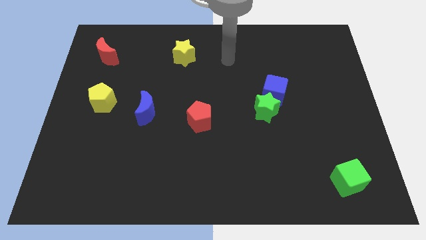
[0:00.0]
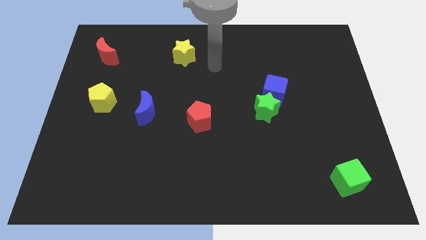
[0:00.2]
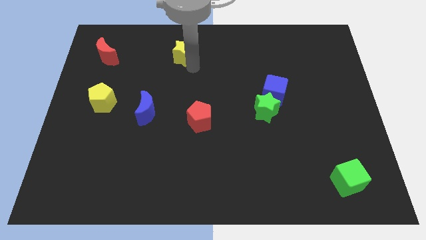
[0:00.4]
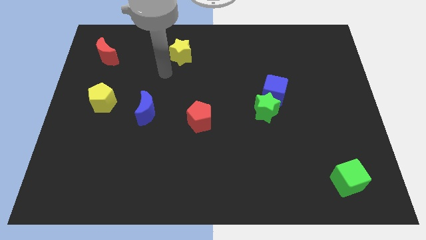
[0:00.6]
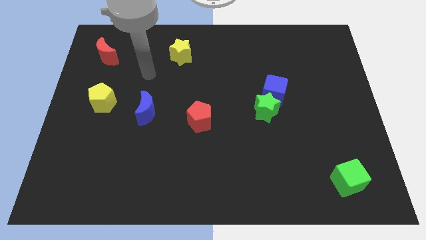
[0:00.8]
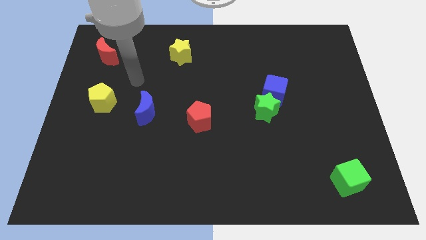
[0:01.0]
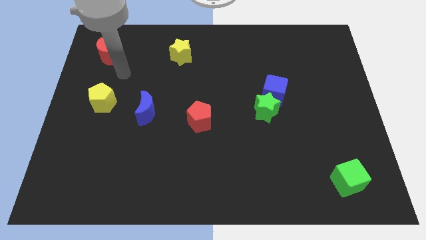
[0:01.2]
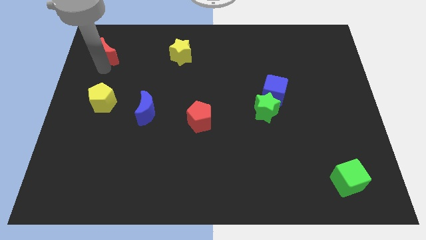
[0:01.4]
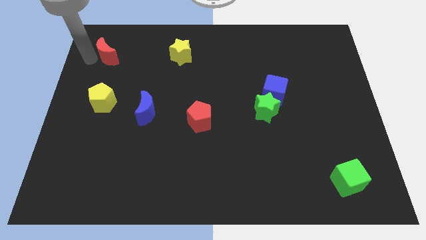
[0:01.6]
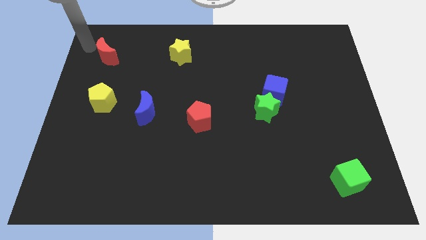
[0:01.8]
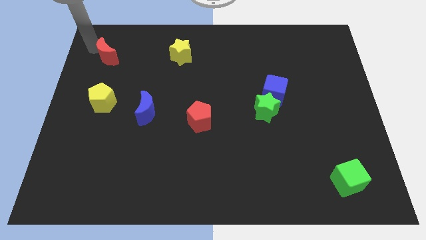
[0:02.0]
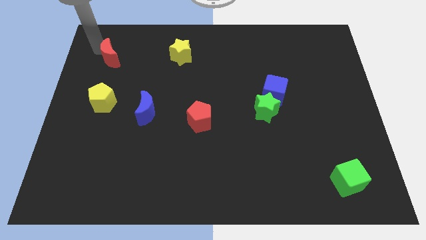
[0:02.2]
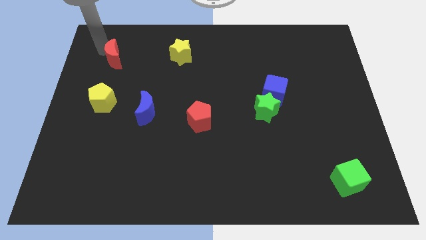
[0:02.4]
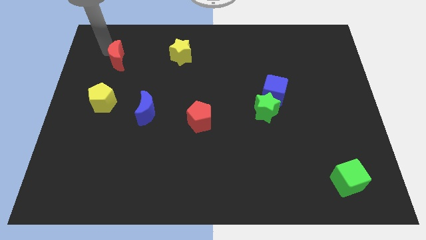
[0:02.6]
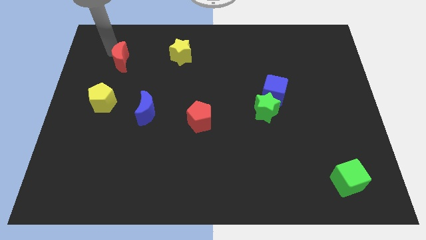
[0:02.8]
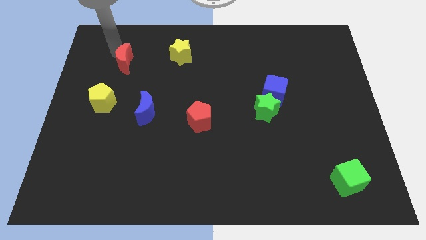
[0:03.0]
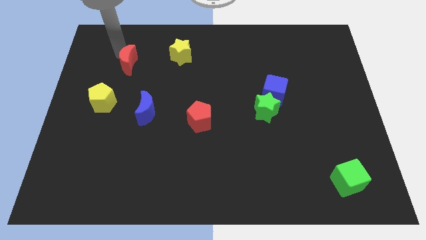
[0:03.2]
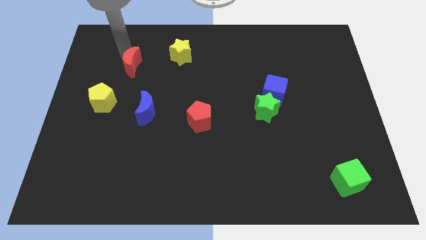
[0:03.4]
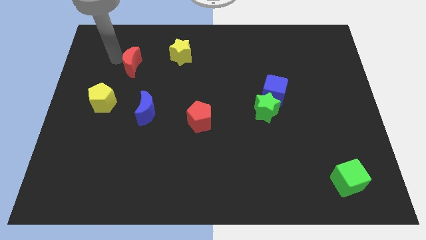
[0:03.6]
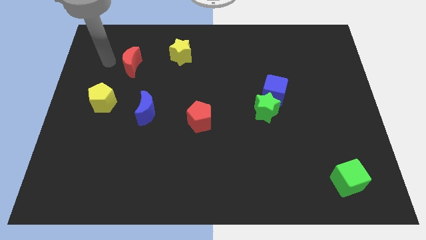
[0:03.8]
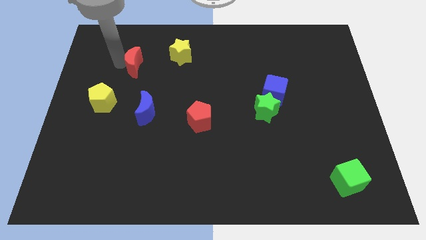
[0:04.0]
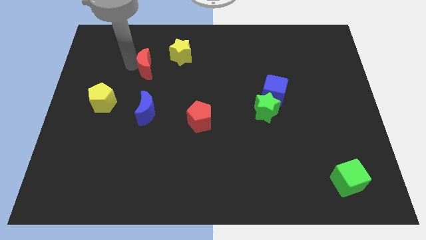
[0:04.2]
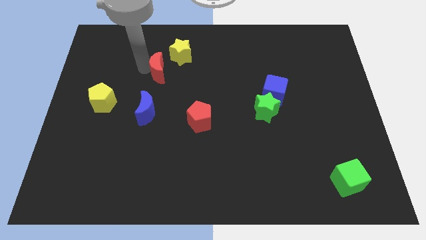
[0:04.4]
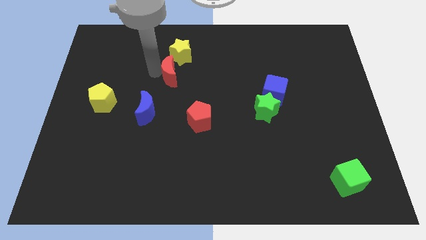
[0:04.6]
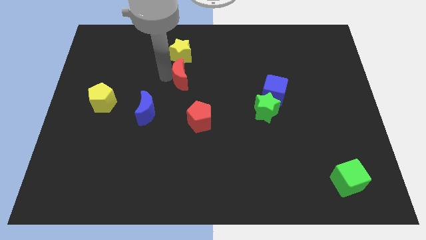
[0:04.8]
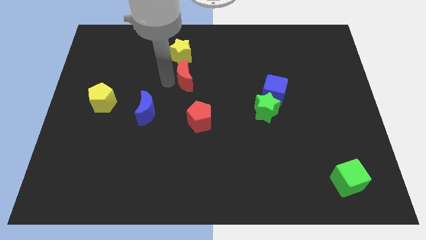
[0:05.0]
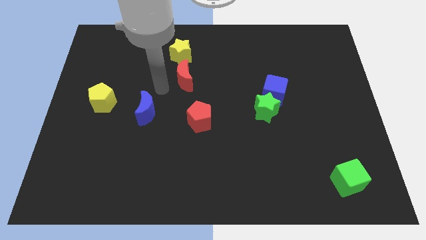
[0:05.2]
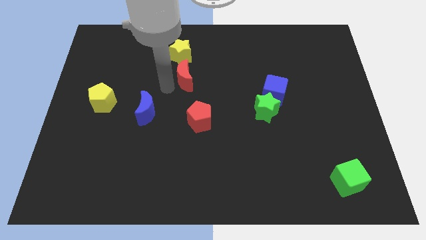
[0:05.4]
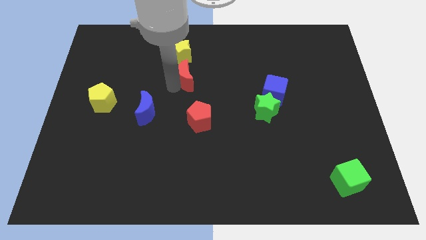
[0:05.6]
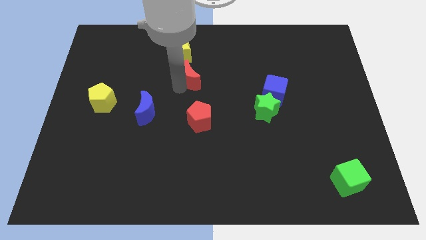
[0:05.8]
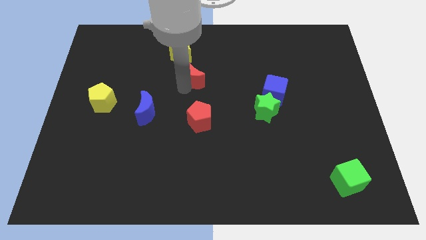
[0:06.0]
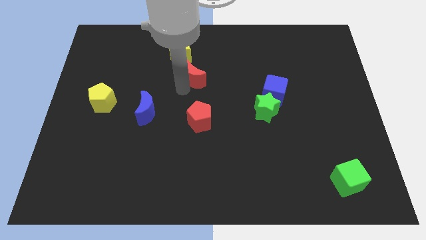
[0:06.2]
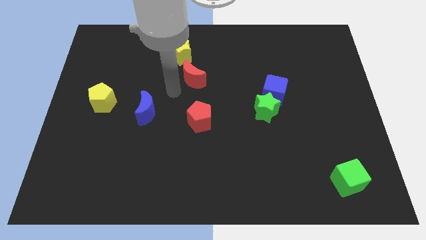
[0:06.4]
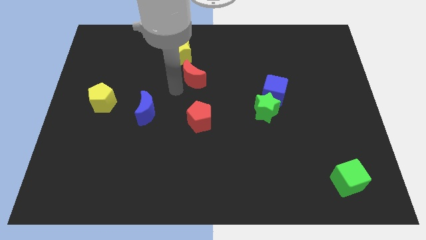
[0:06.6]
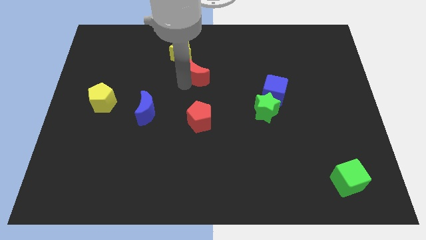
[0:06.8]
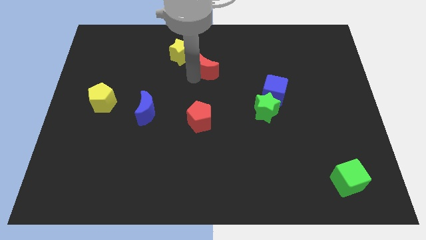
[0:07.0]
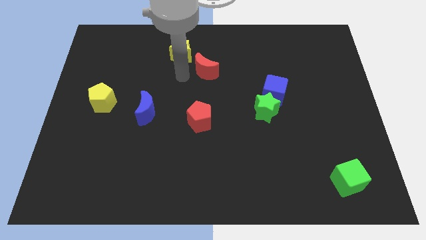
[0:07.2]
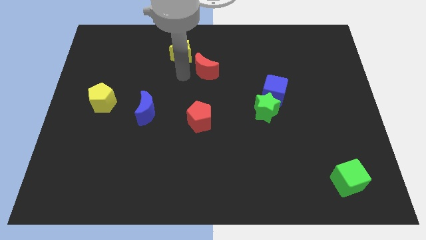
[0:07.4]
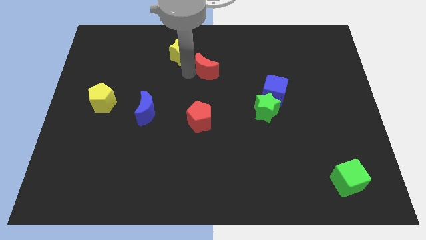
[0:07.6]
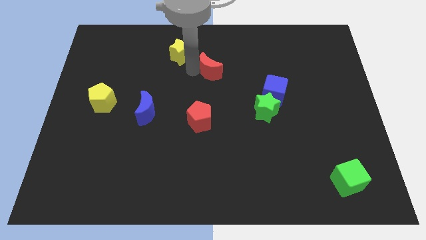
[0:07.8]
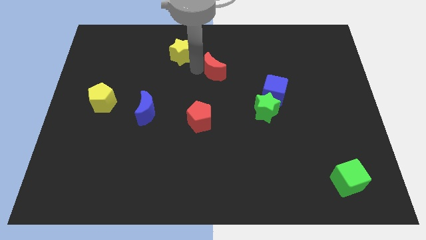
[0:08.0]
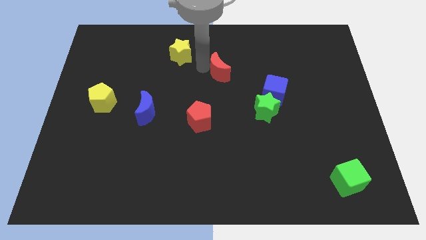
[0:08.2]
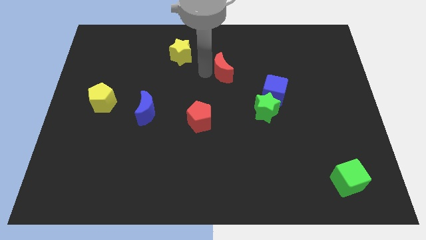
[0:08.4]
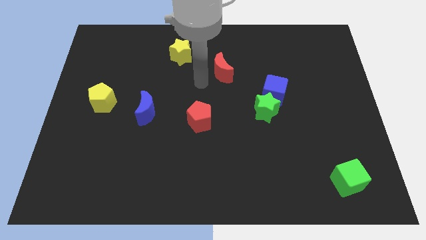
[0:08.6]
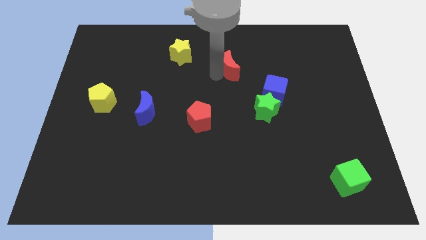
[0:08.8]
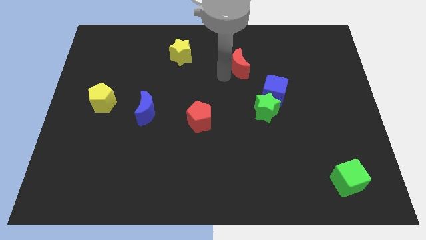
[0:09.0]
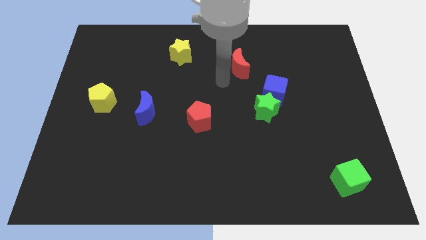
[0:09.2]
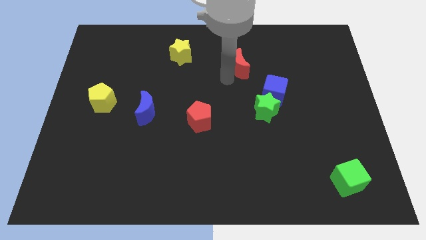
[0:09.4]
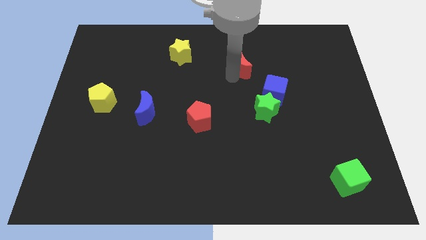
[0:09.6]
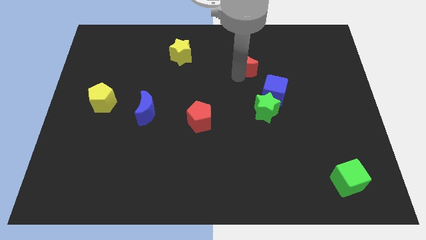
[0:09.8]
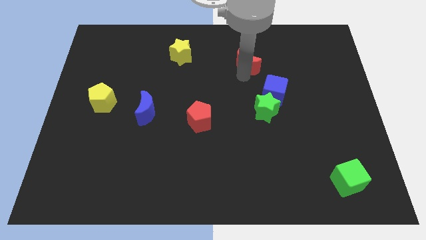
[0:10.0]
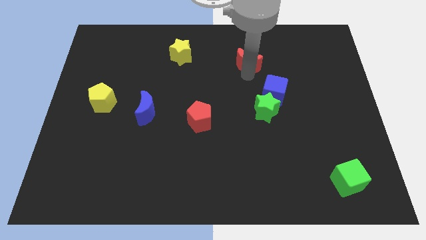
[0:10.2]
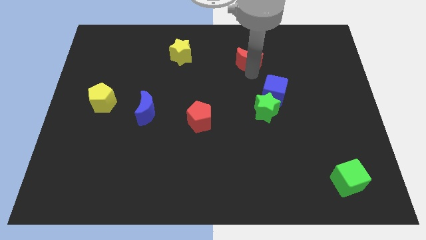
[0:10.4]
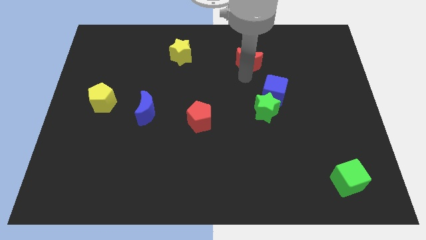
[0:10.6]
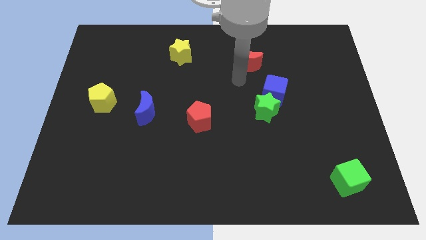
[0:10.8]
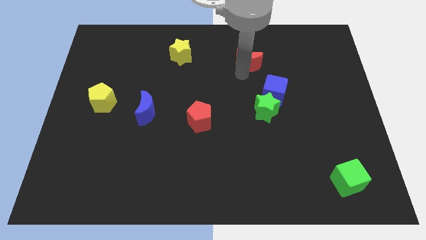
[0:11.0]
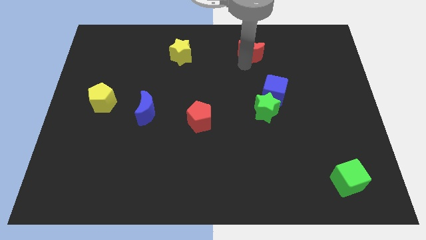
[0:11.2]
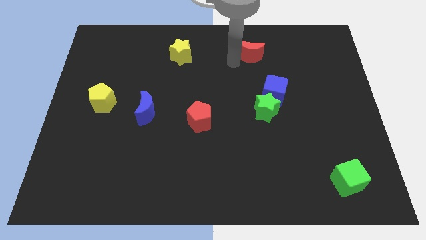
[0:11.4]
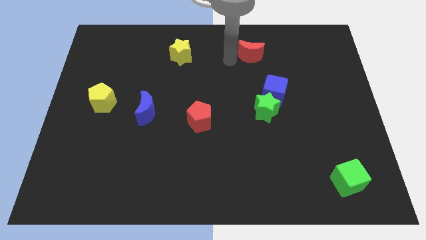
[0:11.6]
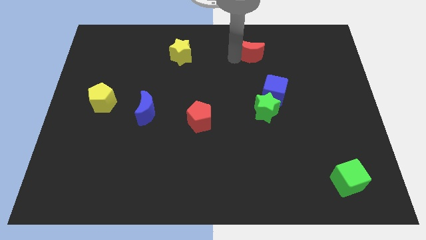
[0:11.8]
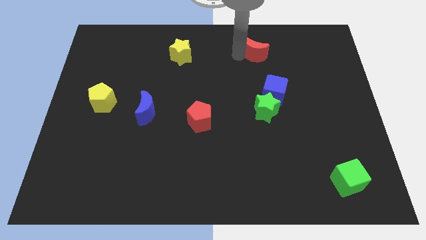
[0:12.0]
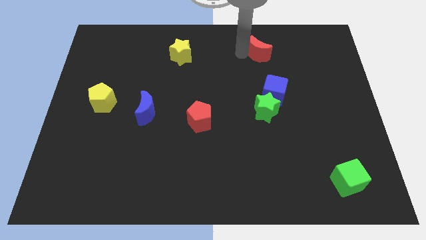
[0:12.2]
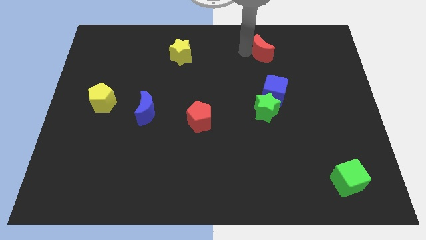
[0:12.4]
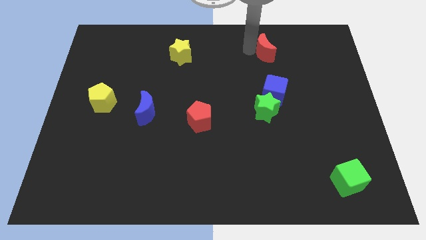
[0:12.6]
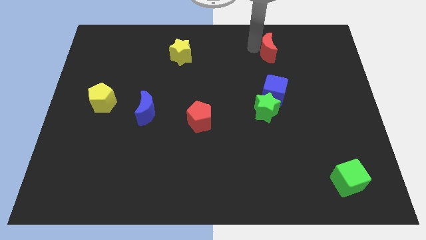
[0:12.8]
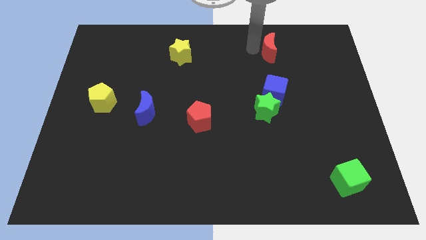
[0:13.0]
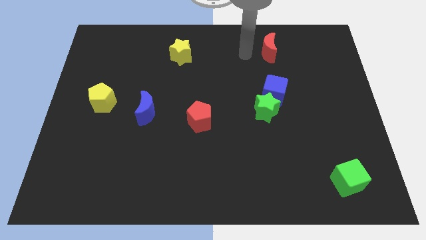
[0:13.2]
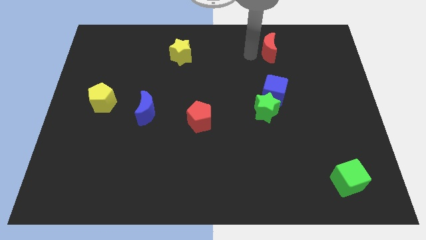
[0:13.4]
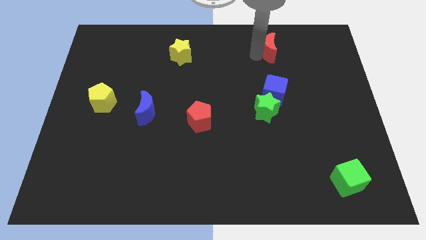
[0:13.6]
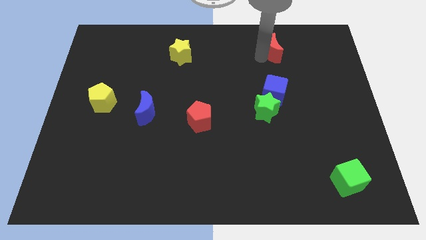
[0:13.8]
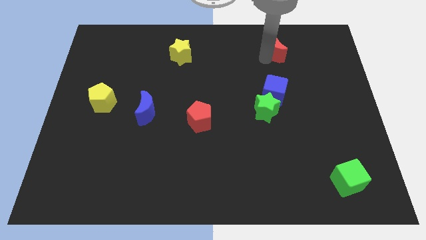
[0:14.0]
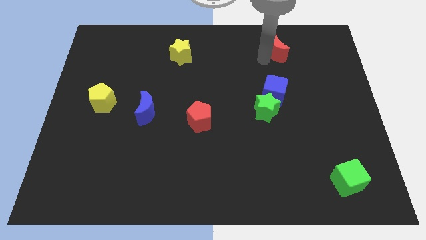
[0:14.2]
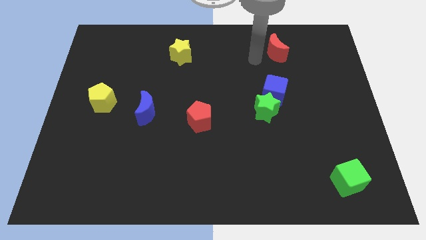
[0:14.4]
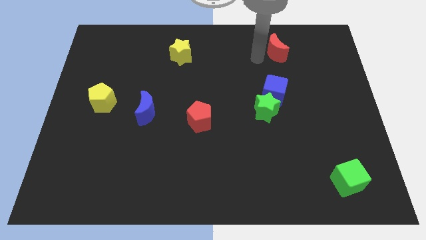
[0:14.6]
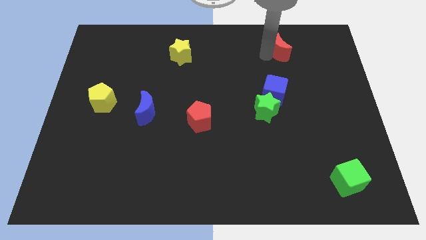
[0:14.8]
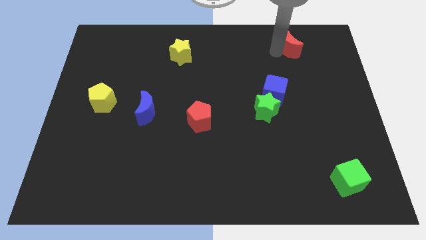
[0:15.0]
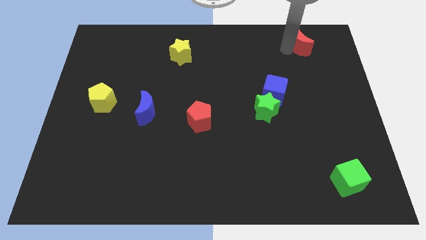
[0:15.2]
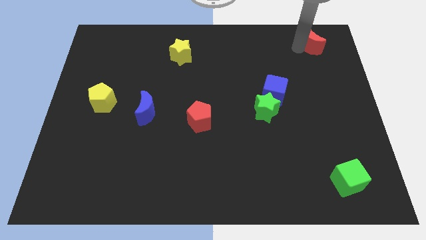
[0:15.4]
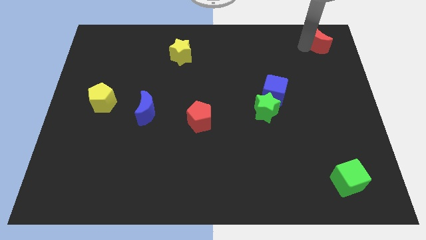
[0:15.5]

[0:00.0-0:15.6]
slide the red moon to the upper right corner
